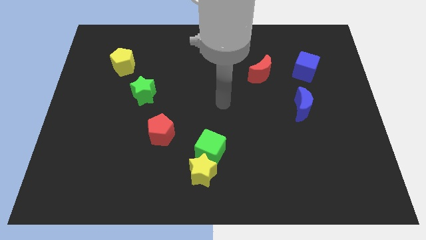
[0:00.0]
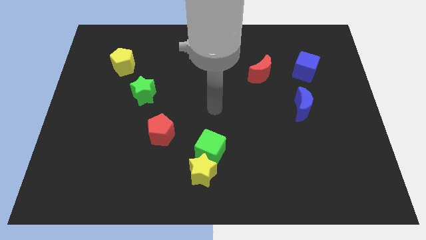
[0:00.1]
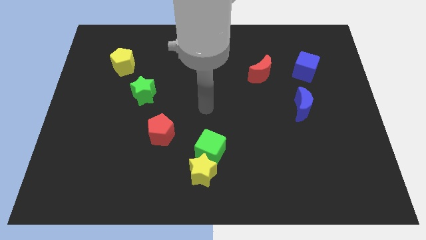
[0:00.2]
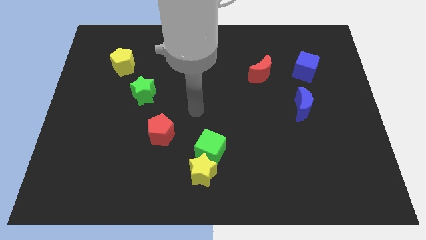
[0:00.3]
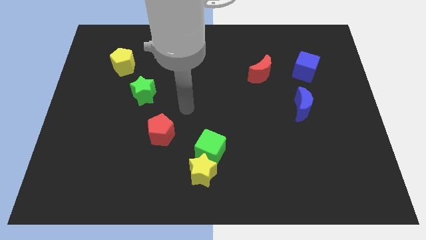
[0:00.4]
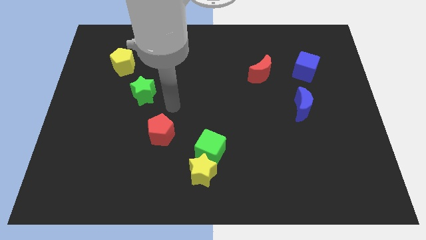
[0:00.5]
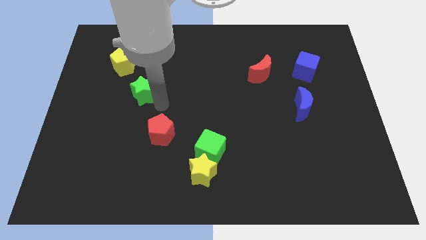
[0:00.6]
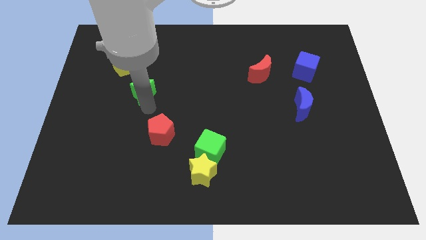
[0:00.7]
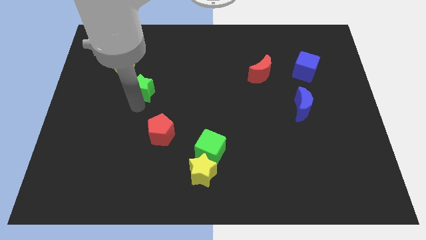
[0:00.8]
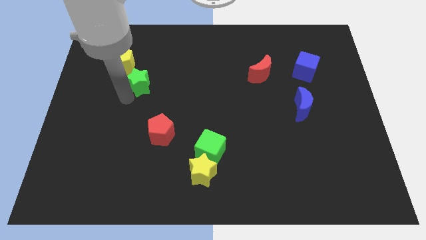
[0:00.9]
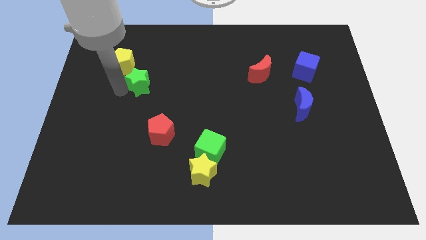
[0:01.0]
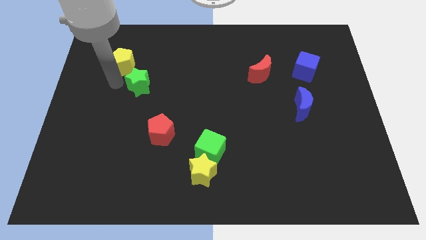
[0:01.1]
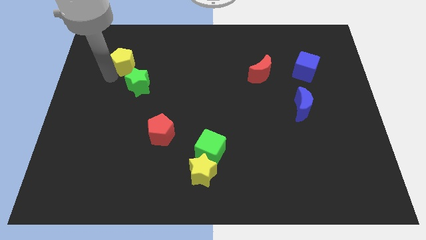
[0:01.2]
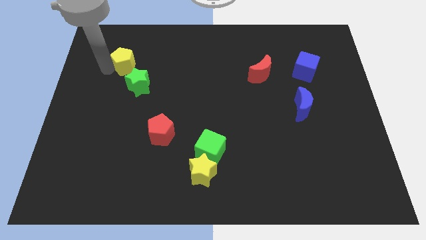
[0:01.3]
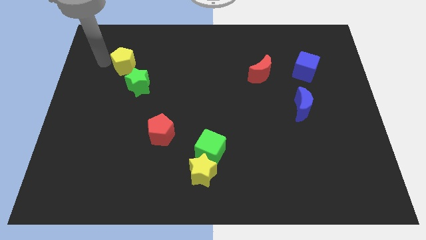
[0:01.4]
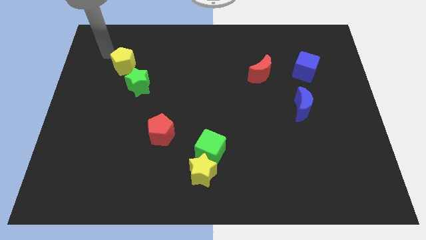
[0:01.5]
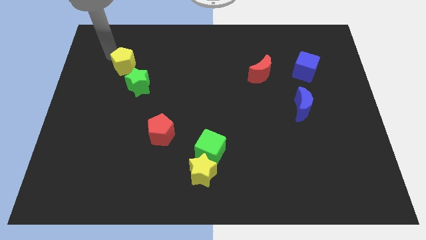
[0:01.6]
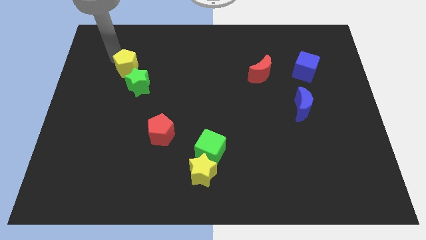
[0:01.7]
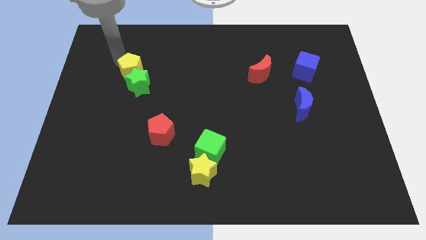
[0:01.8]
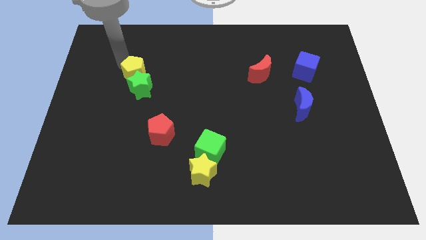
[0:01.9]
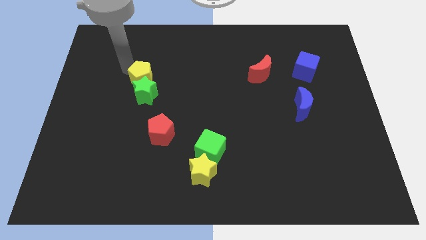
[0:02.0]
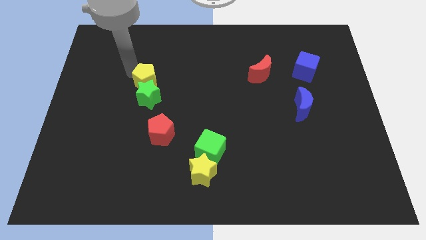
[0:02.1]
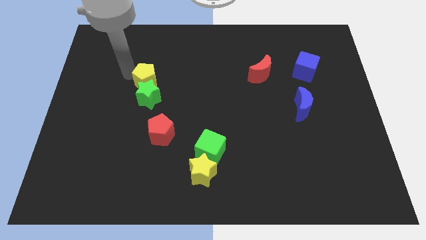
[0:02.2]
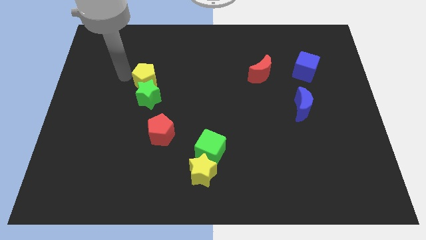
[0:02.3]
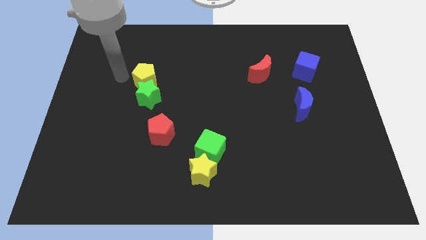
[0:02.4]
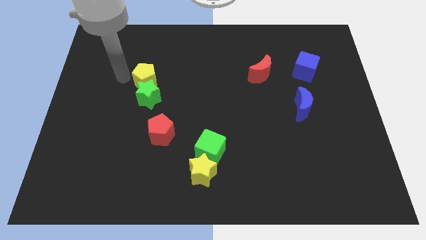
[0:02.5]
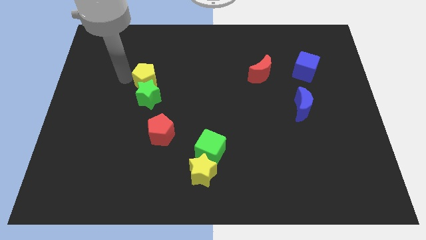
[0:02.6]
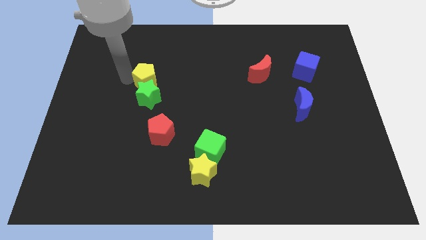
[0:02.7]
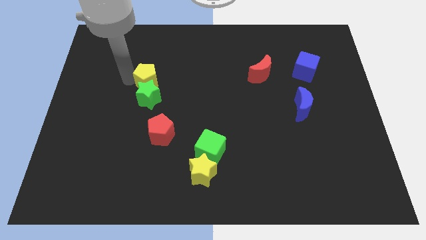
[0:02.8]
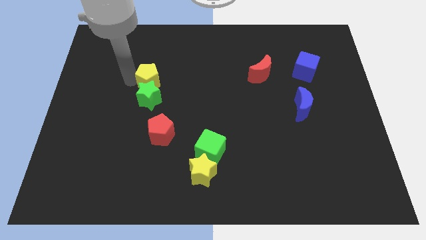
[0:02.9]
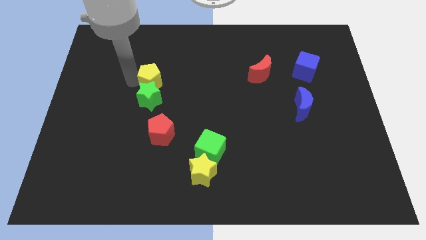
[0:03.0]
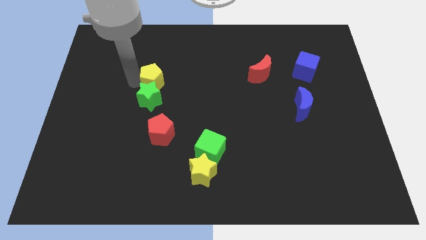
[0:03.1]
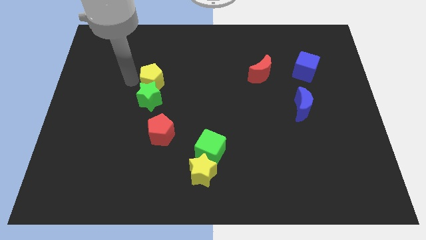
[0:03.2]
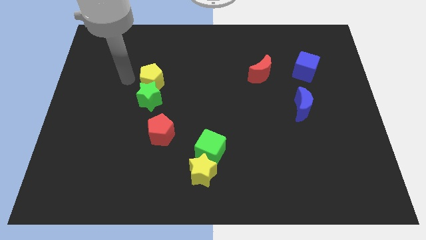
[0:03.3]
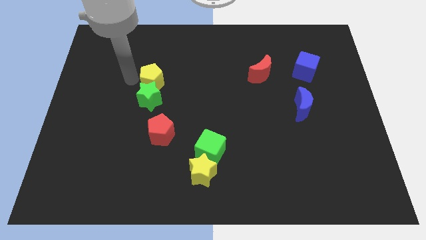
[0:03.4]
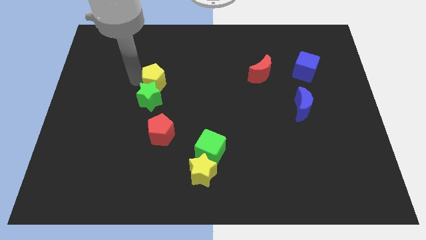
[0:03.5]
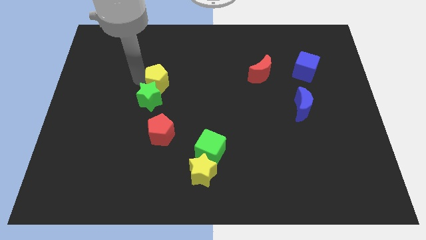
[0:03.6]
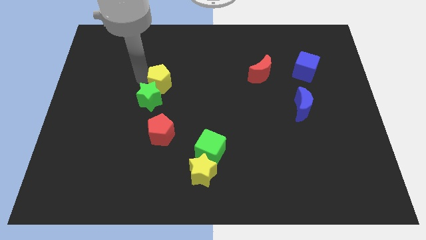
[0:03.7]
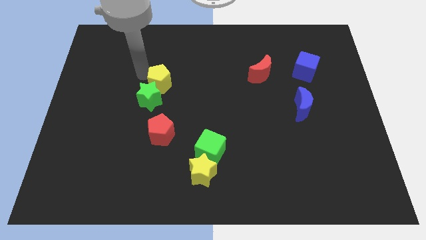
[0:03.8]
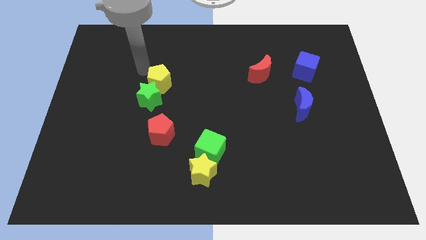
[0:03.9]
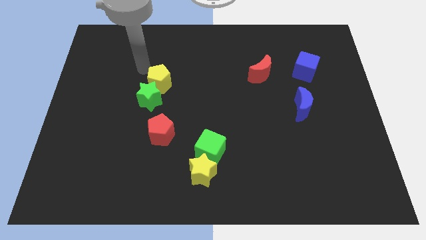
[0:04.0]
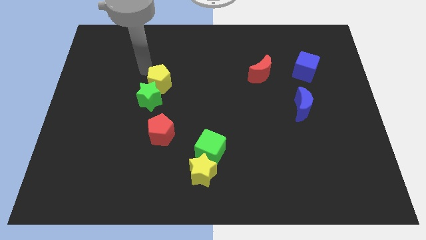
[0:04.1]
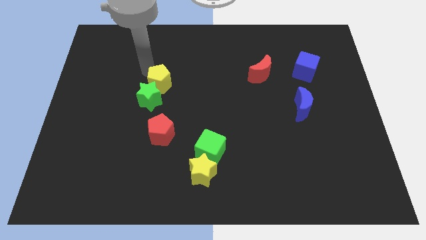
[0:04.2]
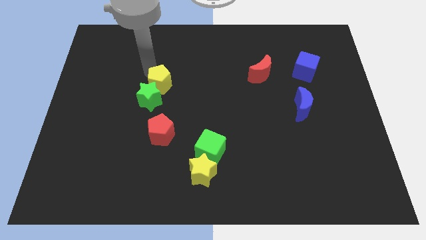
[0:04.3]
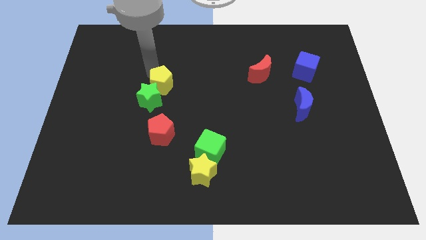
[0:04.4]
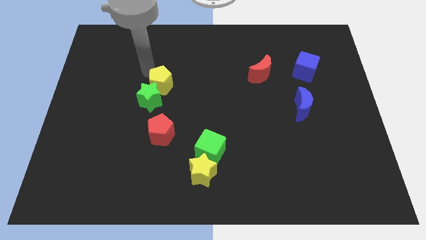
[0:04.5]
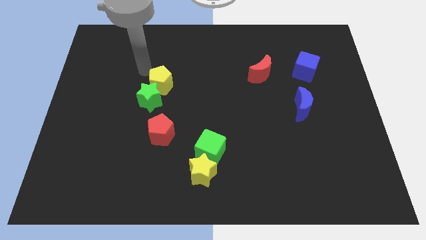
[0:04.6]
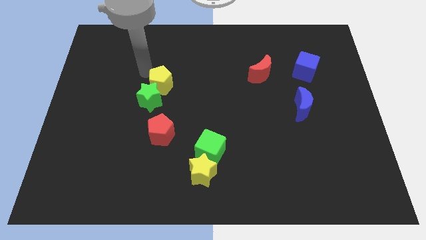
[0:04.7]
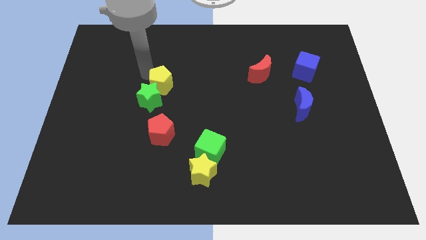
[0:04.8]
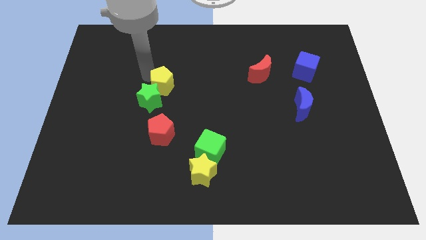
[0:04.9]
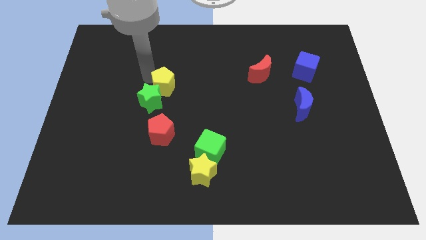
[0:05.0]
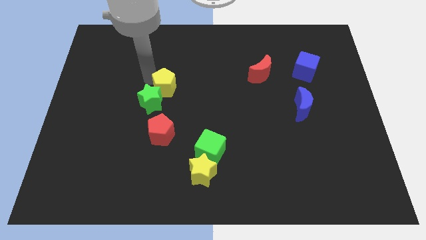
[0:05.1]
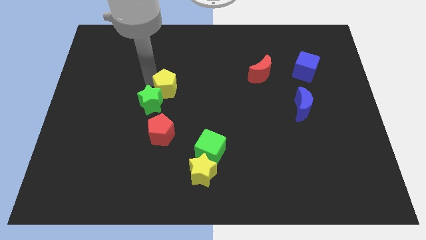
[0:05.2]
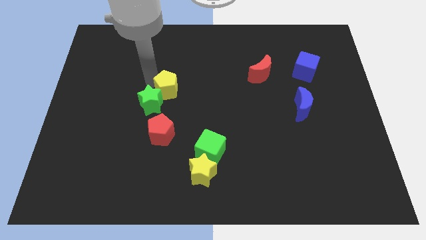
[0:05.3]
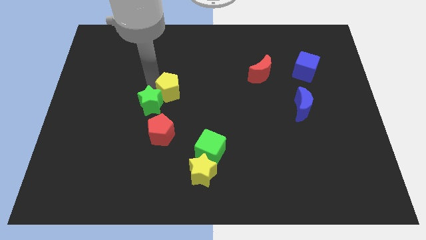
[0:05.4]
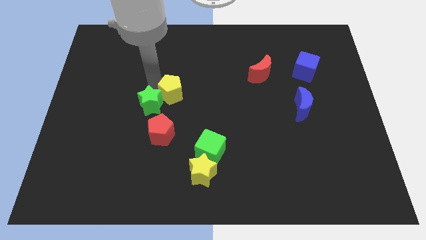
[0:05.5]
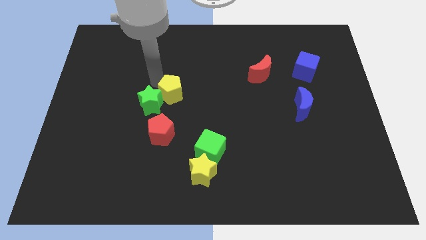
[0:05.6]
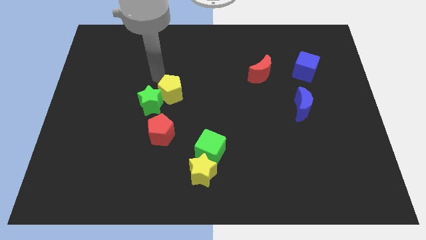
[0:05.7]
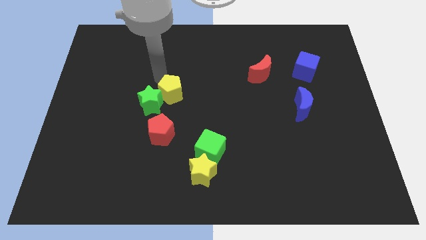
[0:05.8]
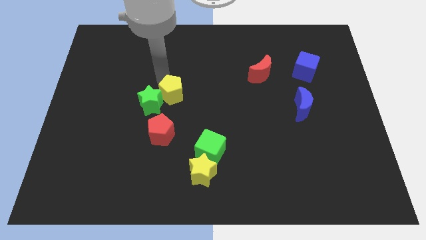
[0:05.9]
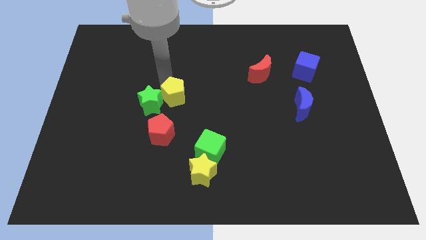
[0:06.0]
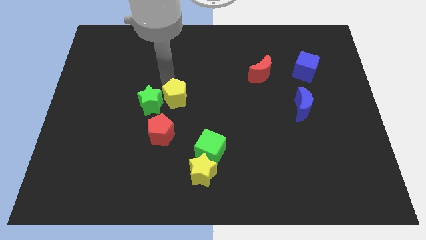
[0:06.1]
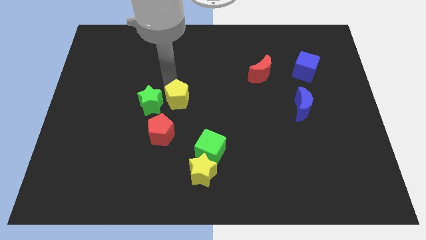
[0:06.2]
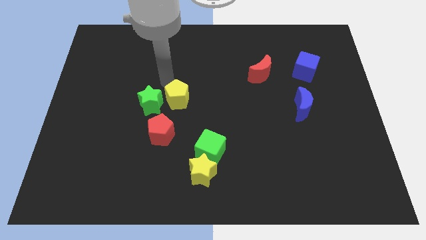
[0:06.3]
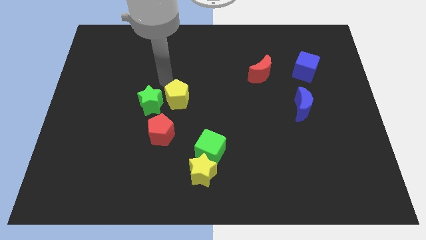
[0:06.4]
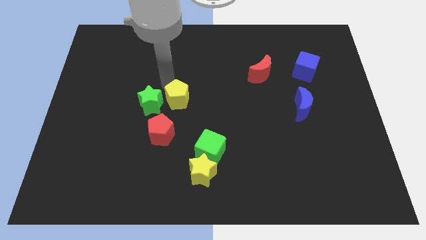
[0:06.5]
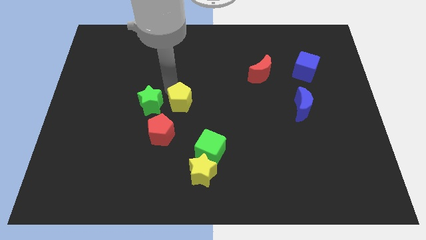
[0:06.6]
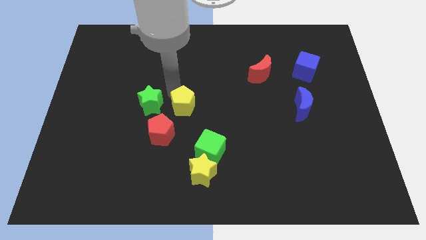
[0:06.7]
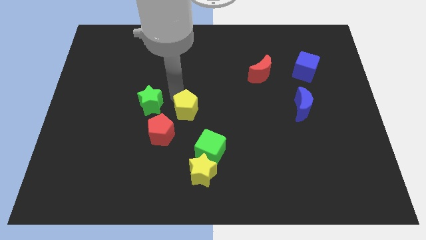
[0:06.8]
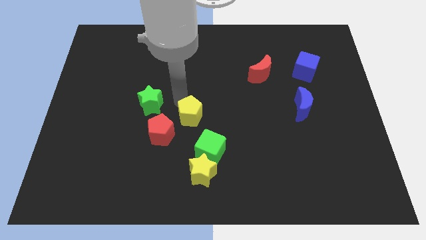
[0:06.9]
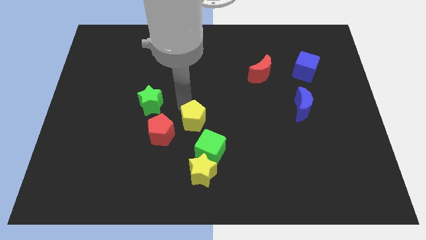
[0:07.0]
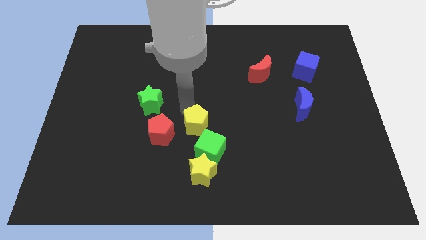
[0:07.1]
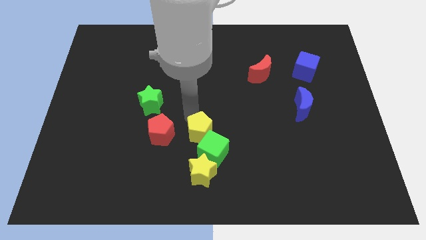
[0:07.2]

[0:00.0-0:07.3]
put the yellow pentagon next to the green cube
